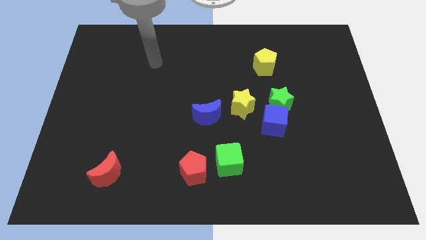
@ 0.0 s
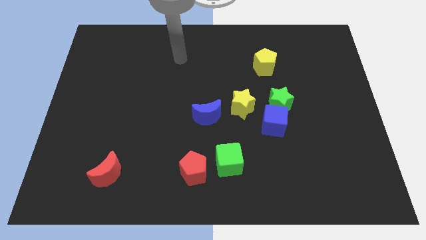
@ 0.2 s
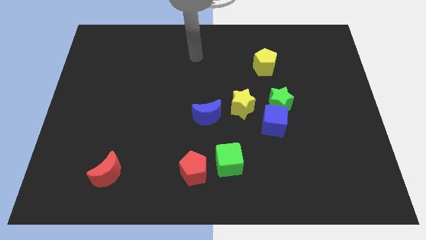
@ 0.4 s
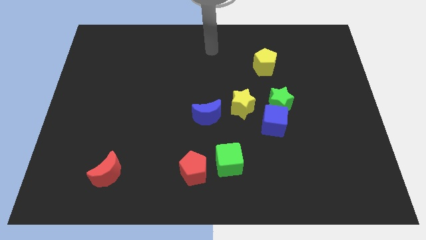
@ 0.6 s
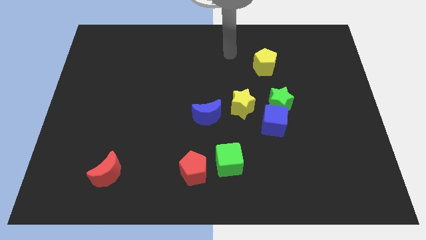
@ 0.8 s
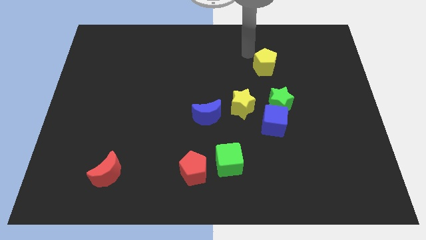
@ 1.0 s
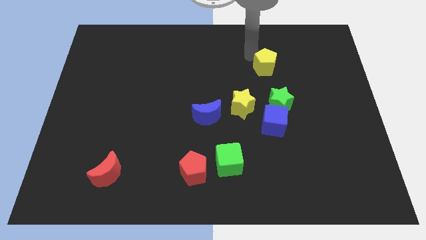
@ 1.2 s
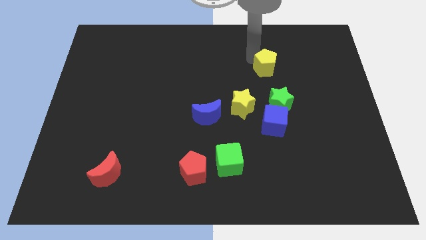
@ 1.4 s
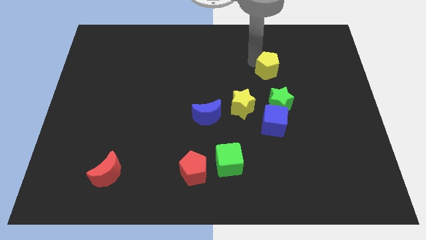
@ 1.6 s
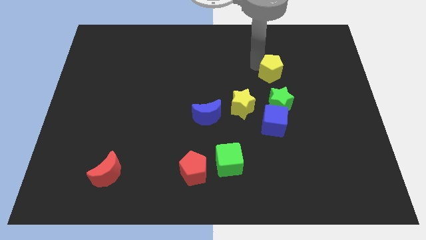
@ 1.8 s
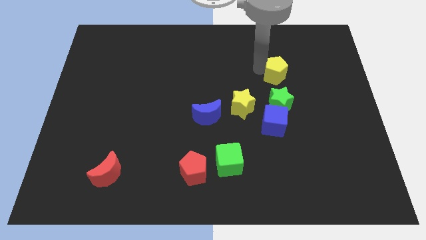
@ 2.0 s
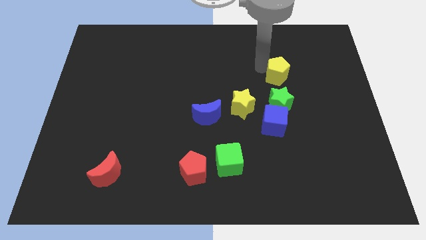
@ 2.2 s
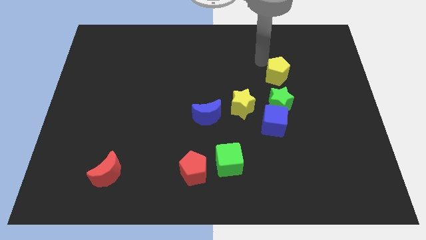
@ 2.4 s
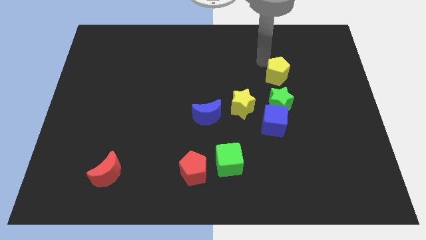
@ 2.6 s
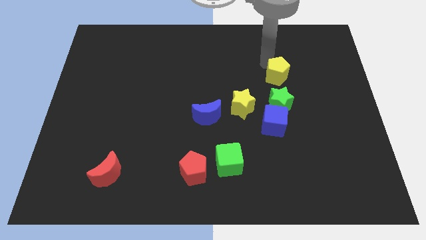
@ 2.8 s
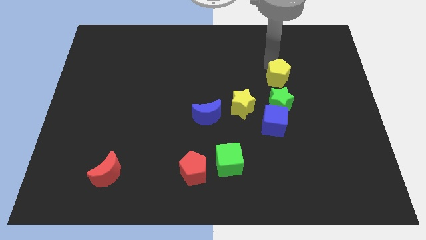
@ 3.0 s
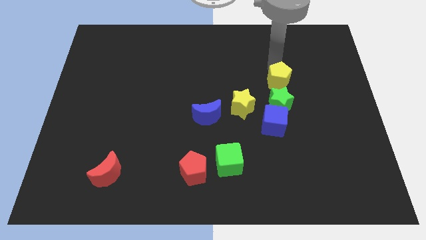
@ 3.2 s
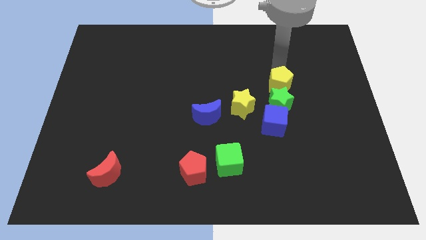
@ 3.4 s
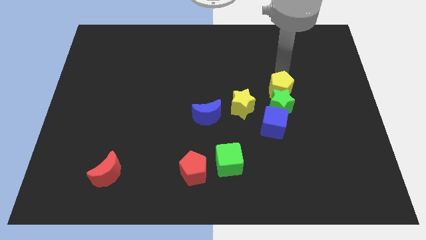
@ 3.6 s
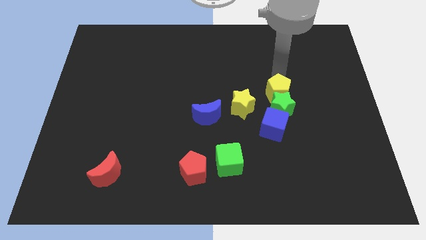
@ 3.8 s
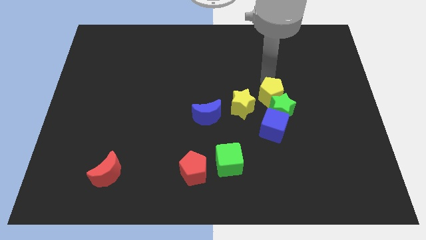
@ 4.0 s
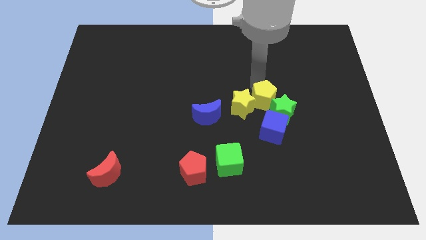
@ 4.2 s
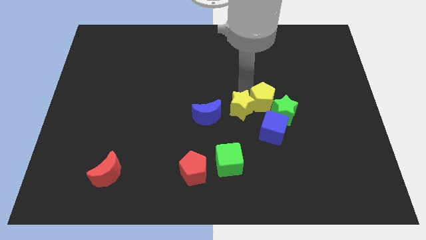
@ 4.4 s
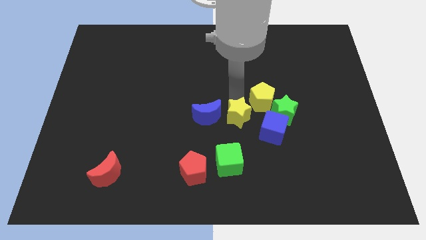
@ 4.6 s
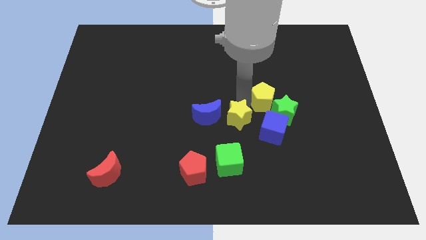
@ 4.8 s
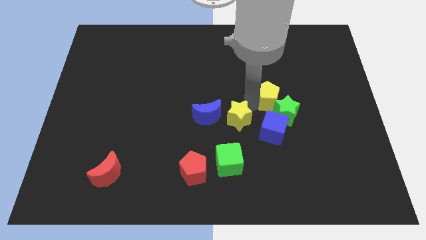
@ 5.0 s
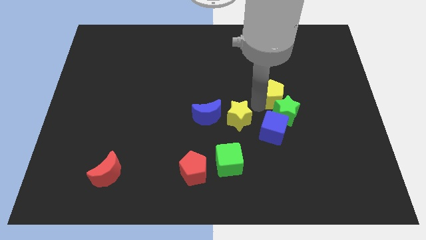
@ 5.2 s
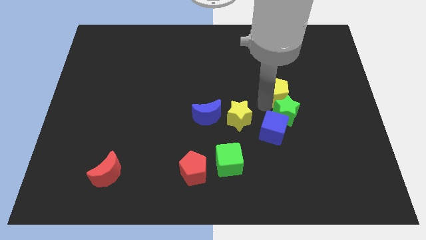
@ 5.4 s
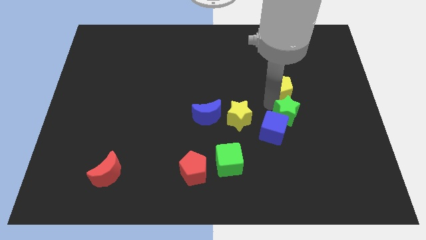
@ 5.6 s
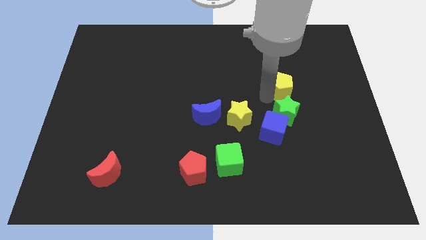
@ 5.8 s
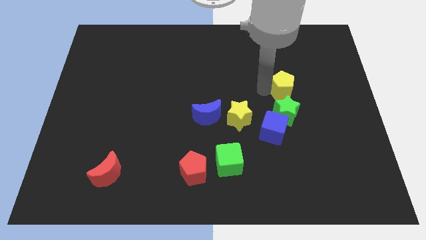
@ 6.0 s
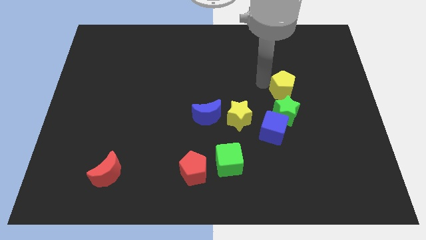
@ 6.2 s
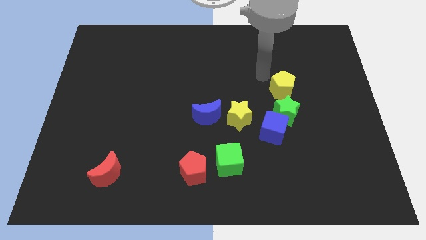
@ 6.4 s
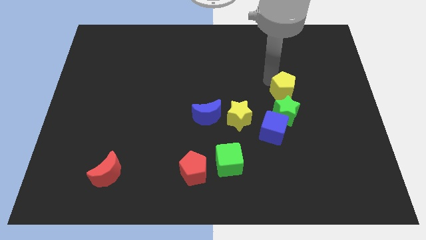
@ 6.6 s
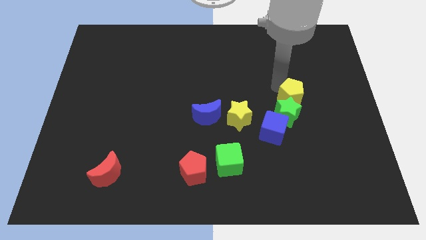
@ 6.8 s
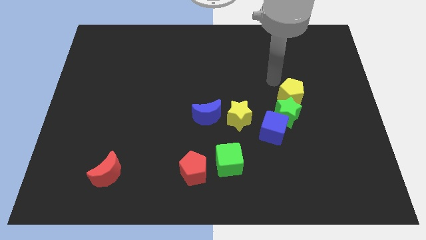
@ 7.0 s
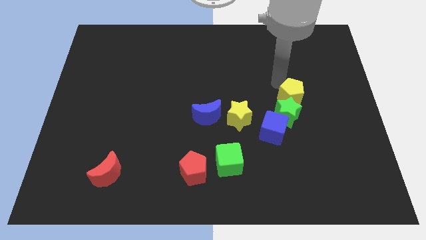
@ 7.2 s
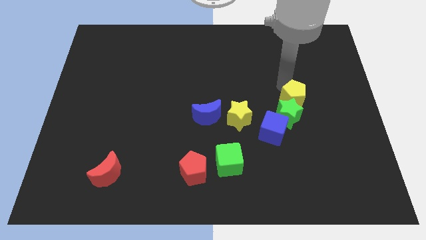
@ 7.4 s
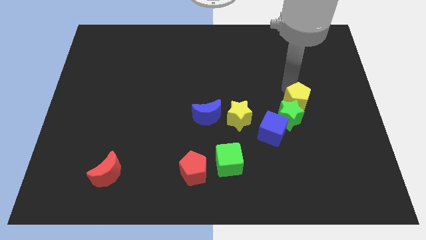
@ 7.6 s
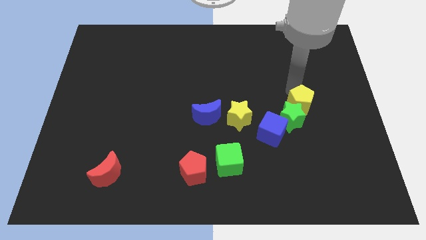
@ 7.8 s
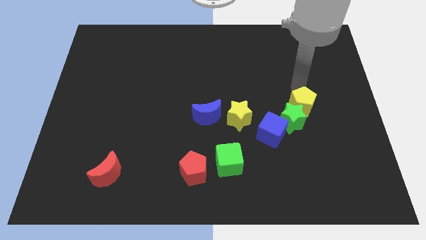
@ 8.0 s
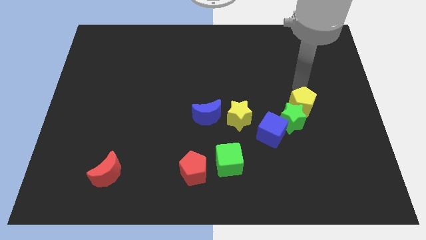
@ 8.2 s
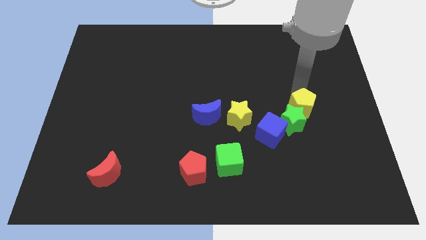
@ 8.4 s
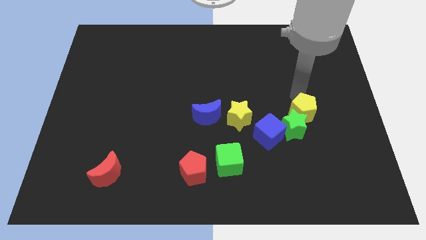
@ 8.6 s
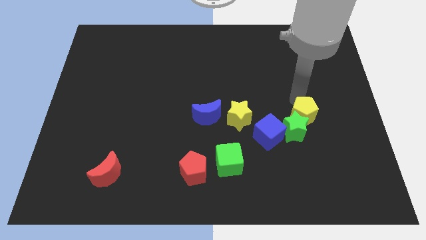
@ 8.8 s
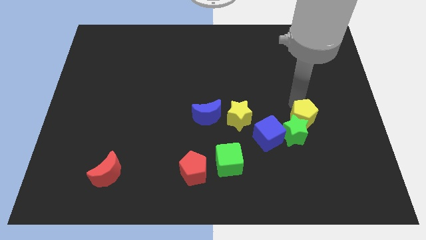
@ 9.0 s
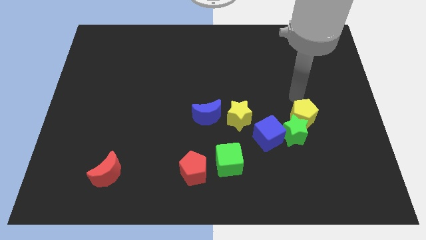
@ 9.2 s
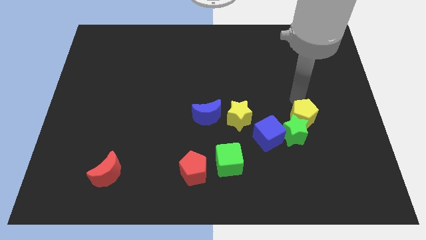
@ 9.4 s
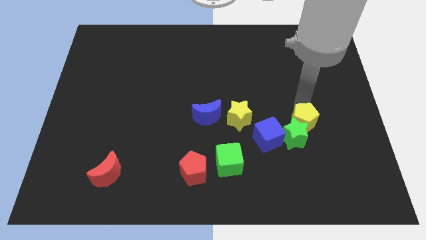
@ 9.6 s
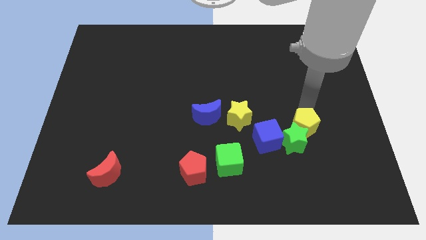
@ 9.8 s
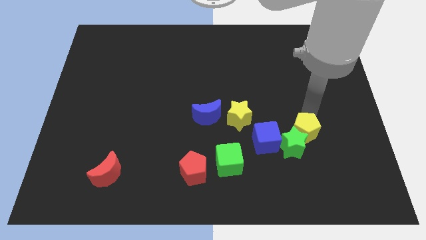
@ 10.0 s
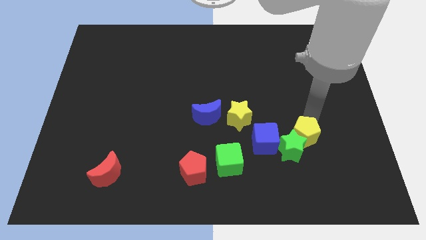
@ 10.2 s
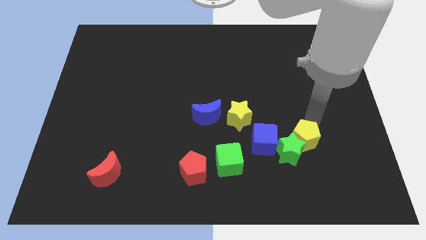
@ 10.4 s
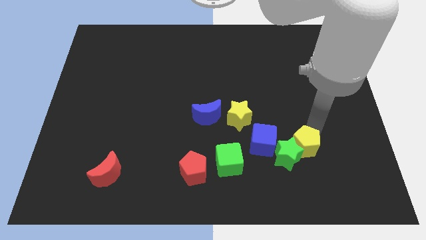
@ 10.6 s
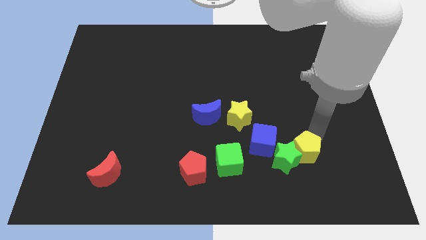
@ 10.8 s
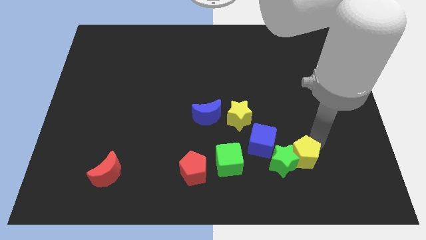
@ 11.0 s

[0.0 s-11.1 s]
slide the yellow pentagon right of the green cube

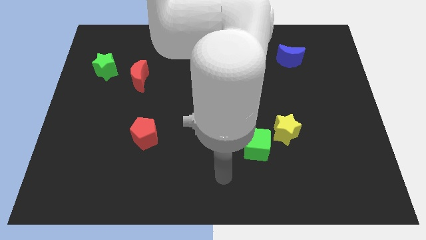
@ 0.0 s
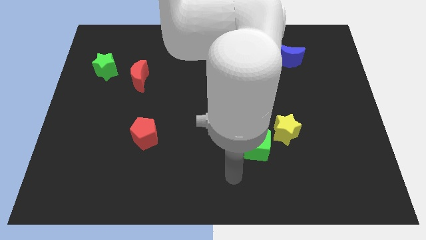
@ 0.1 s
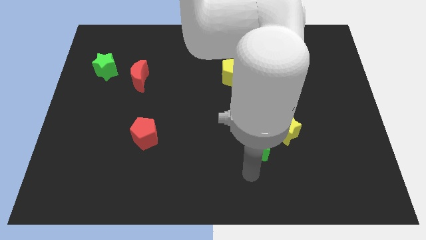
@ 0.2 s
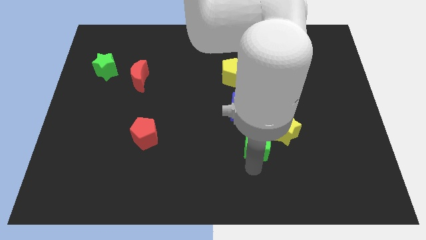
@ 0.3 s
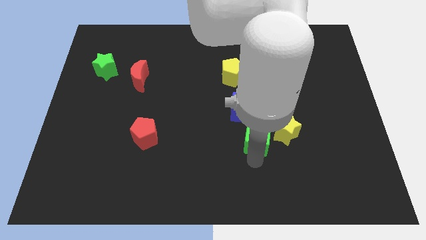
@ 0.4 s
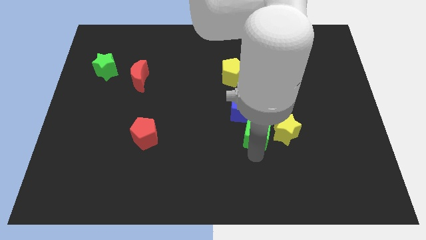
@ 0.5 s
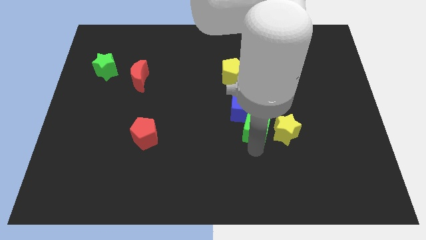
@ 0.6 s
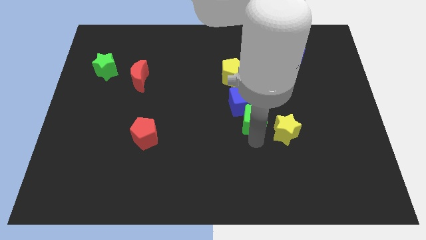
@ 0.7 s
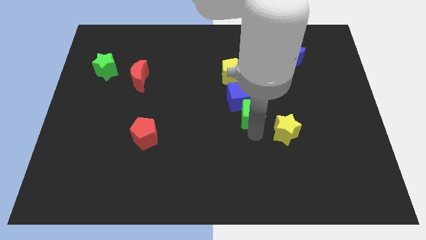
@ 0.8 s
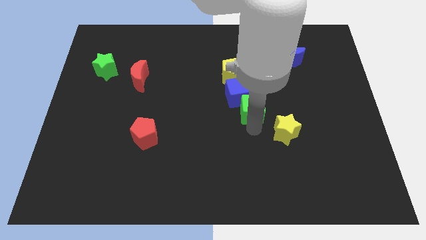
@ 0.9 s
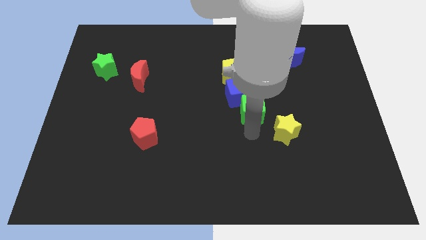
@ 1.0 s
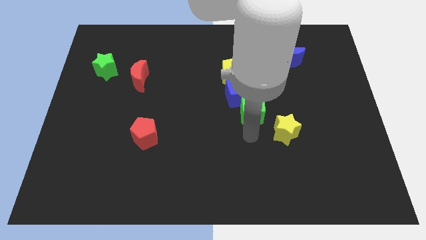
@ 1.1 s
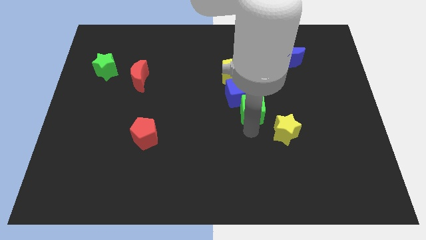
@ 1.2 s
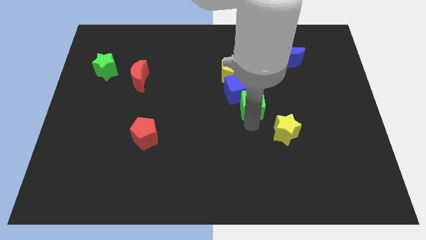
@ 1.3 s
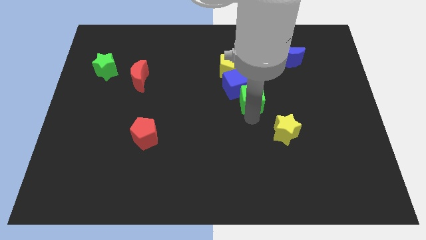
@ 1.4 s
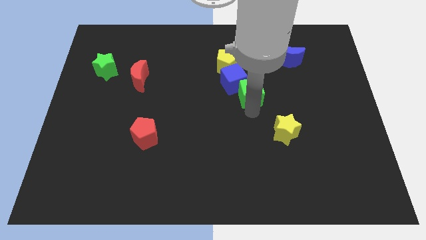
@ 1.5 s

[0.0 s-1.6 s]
slide the green cube diagonally down and to the right of the yellow pentagon
